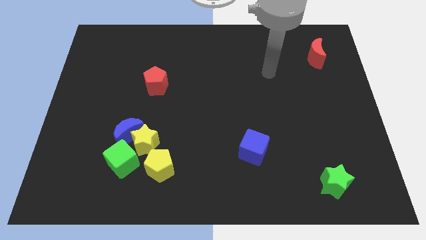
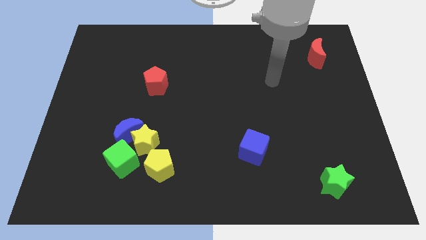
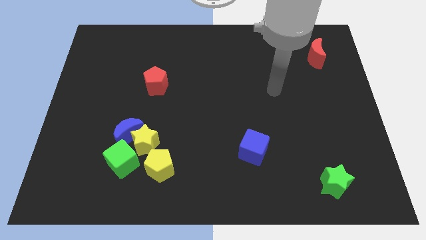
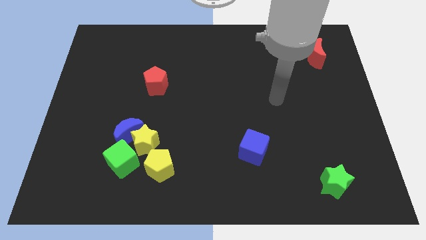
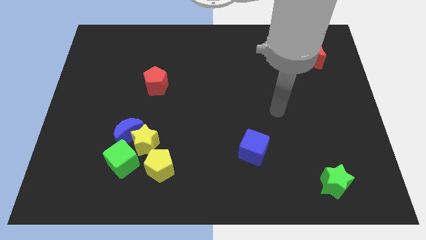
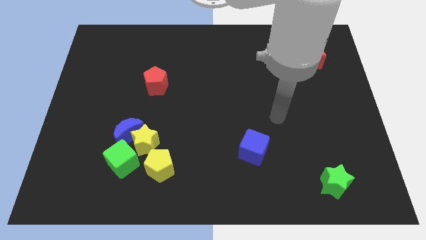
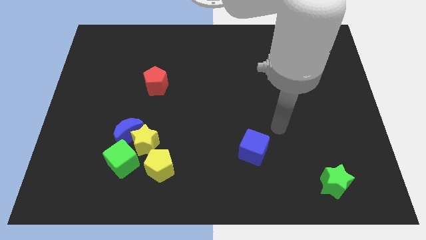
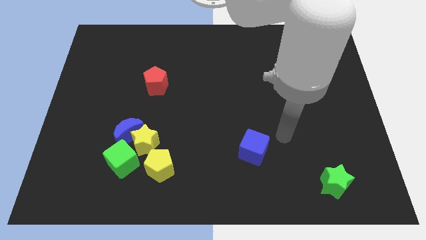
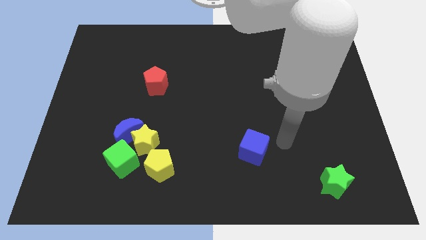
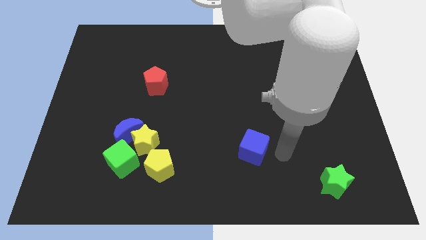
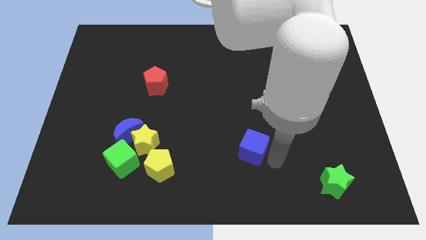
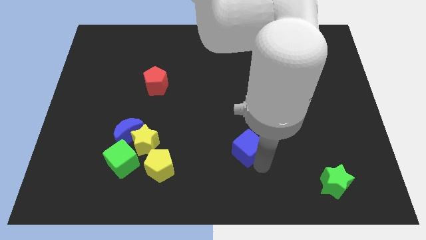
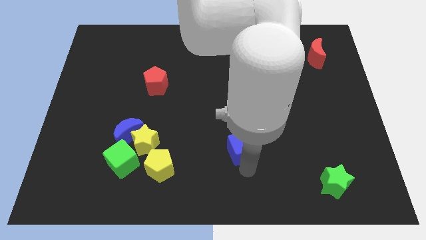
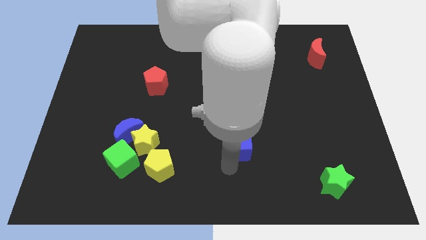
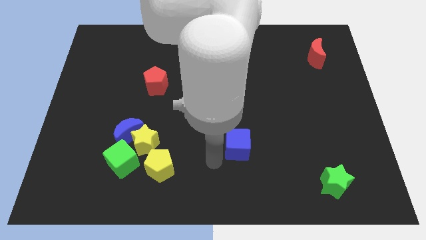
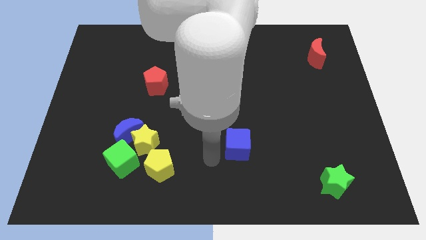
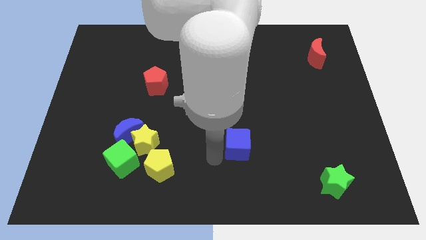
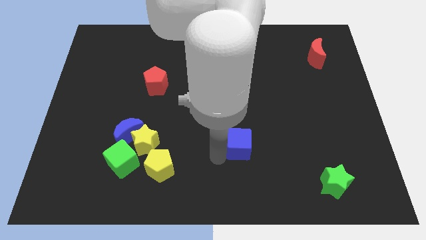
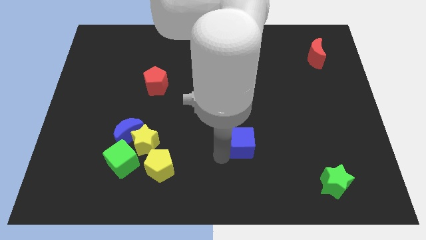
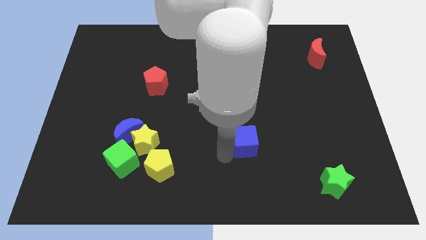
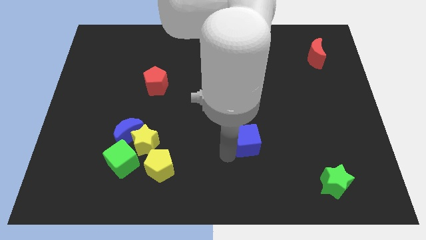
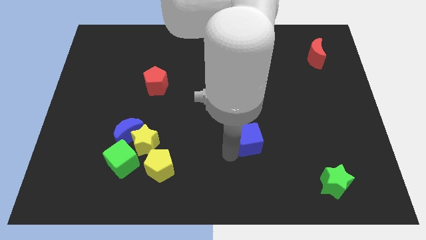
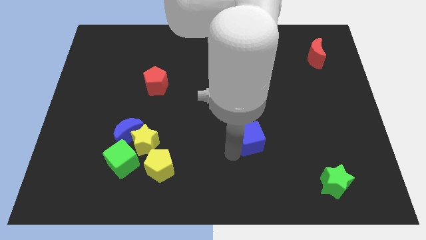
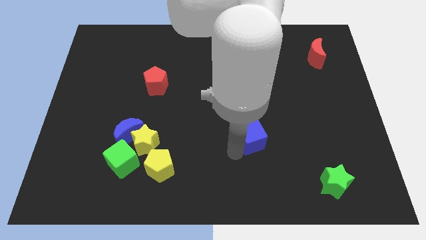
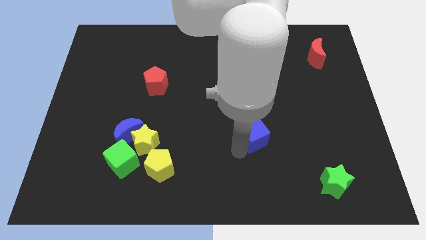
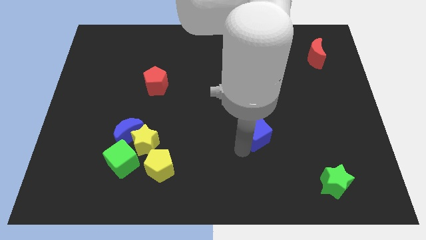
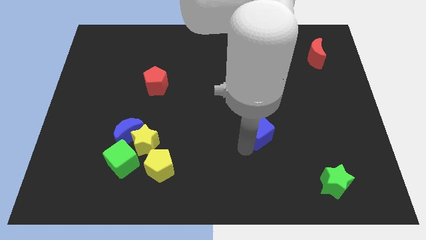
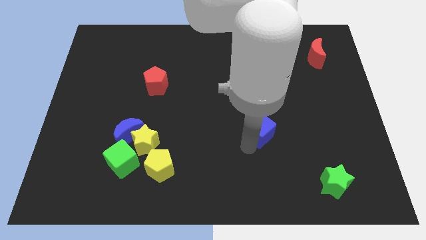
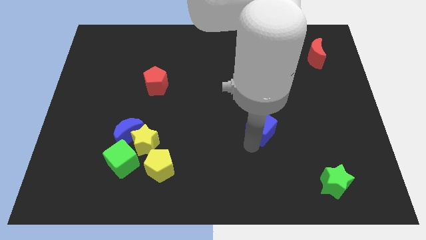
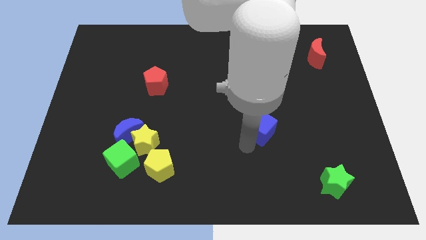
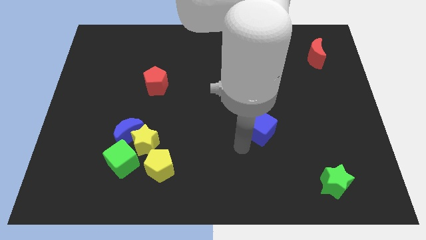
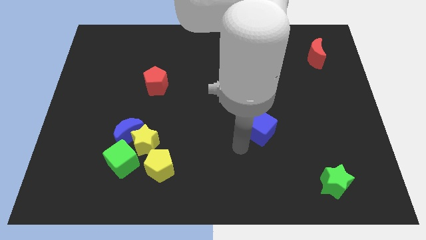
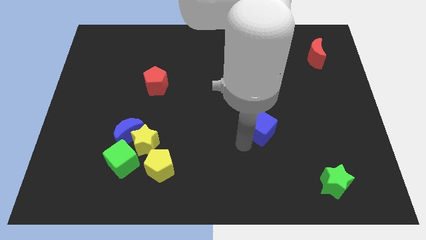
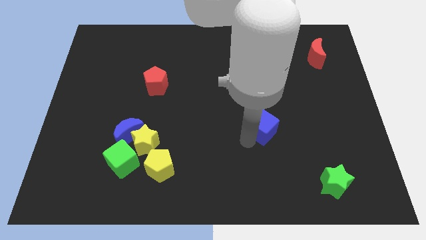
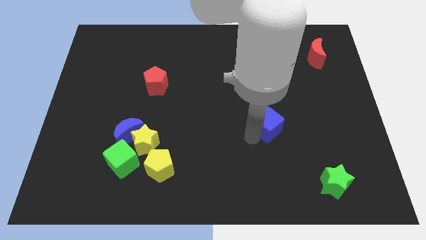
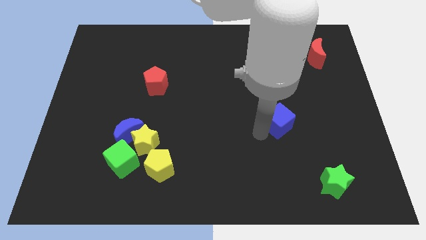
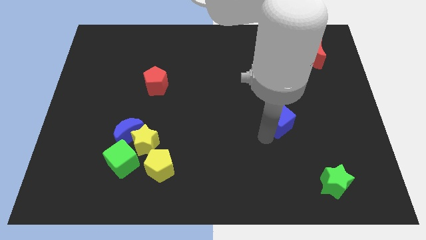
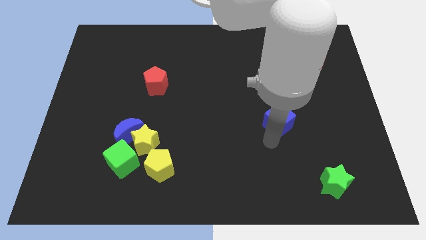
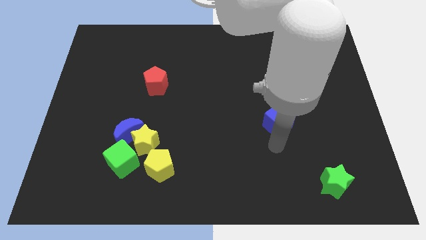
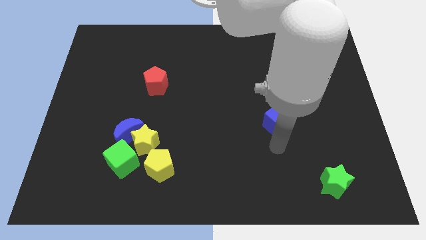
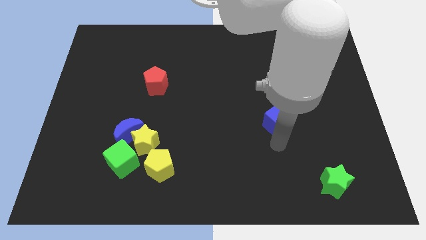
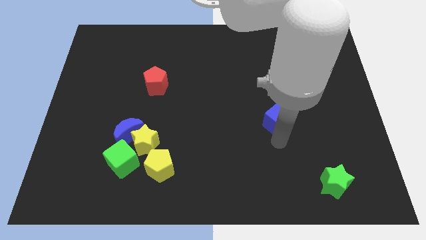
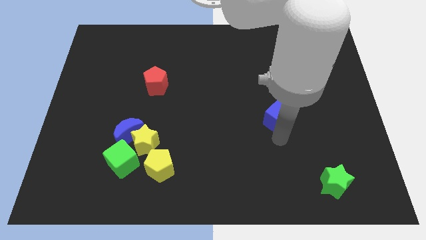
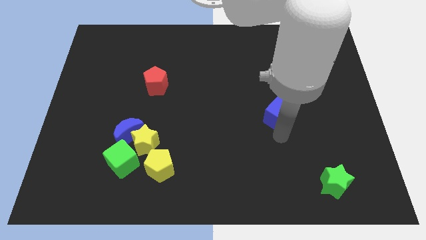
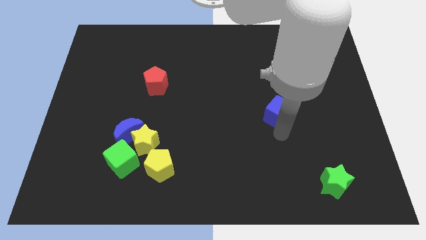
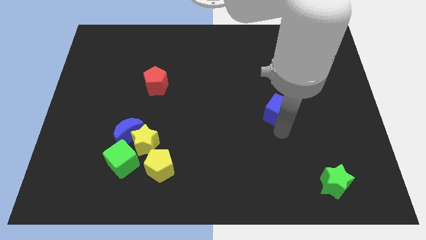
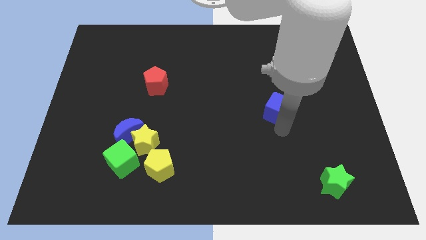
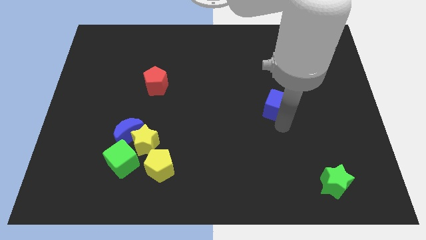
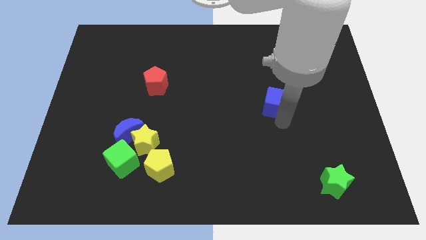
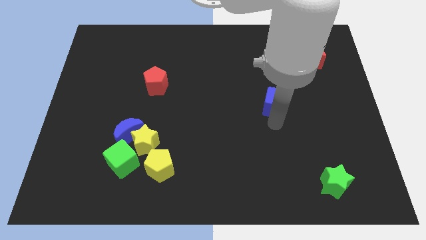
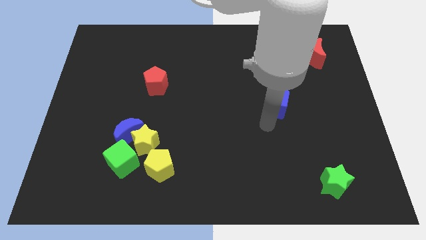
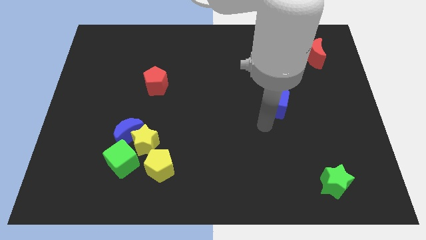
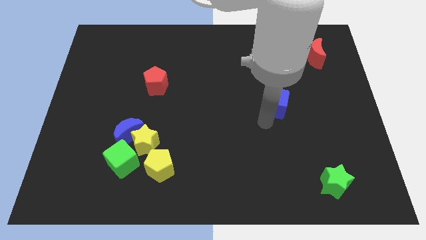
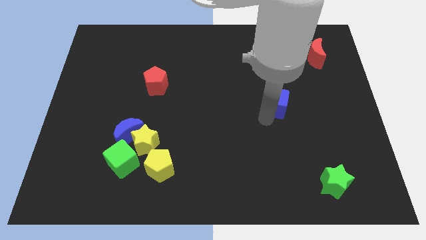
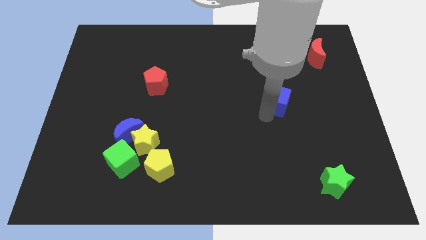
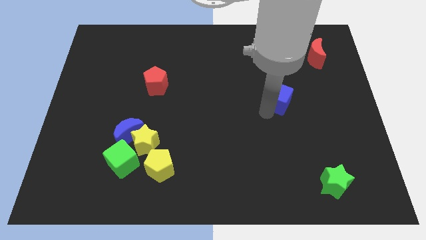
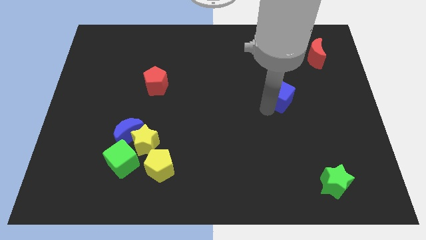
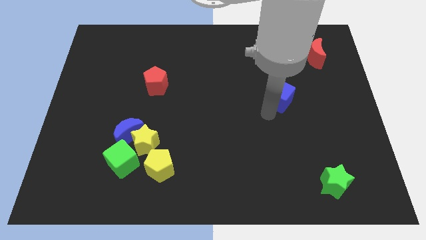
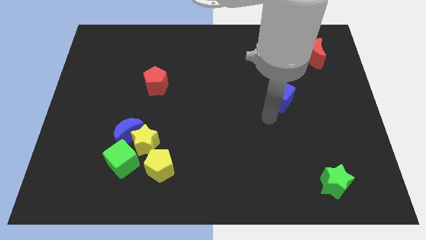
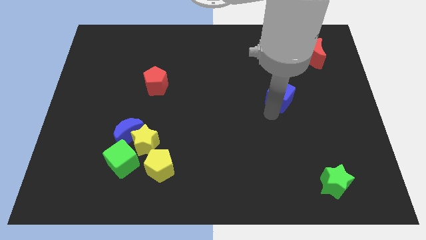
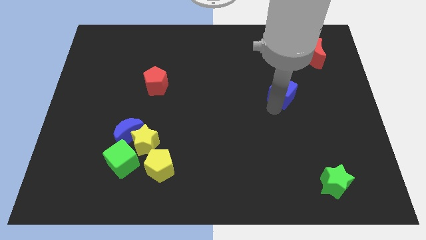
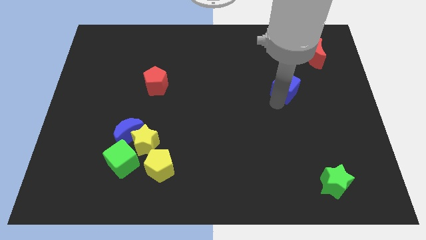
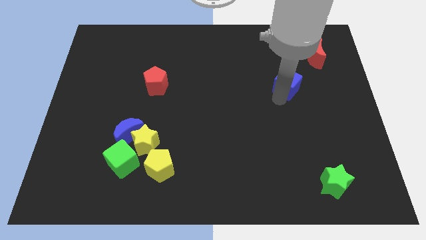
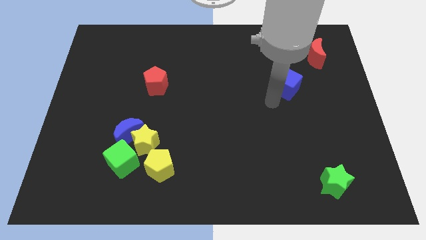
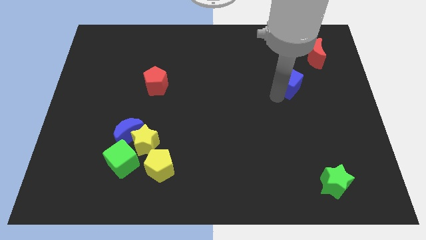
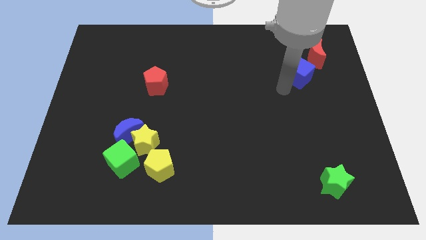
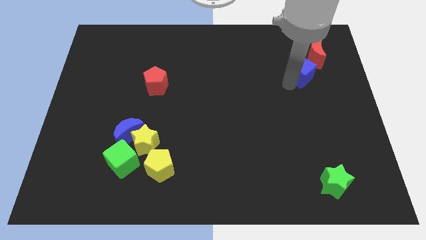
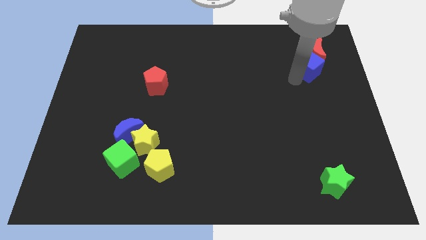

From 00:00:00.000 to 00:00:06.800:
slide the blue cube close to the red moon
